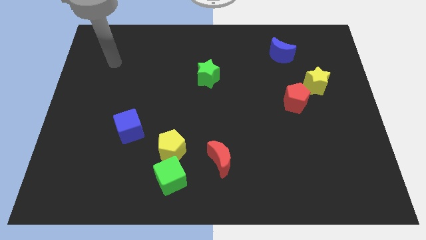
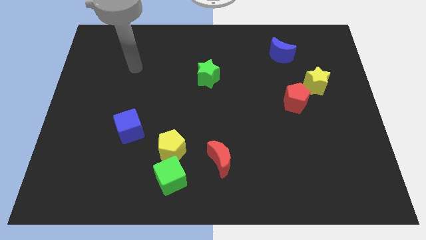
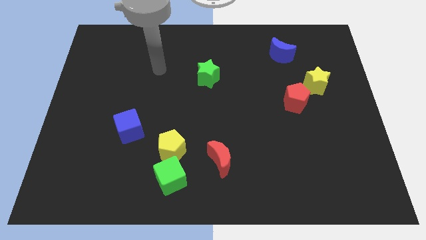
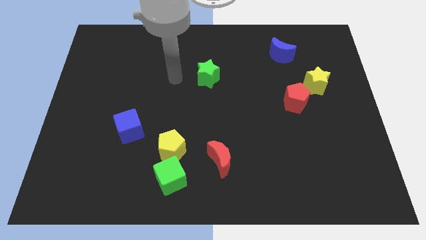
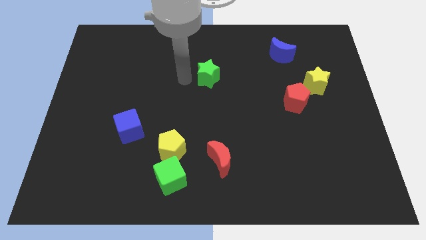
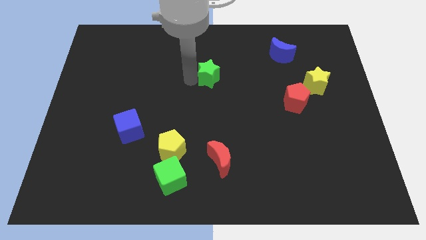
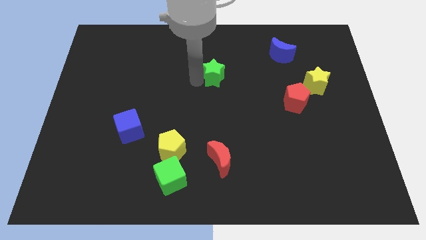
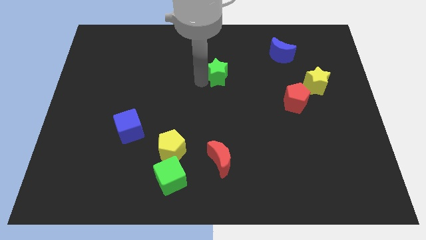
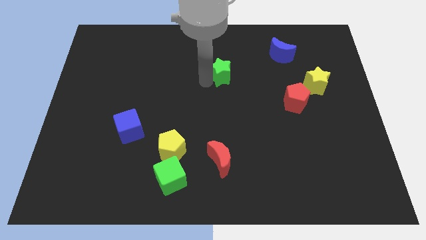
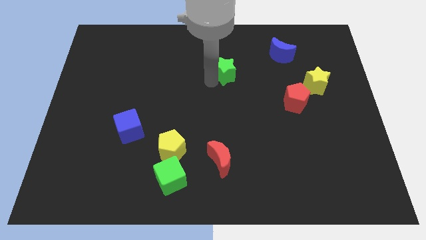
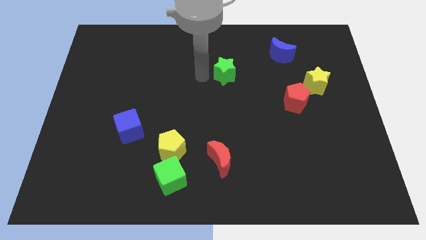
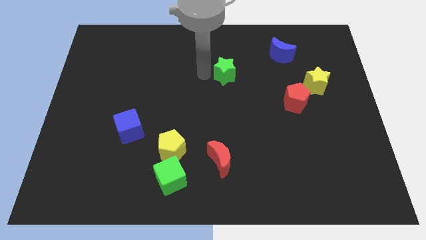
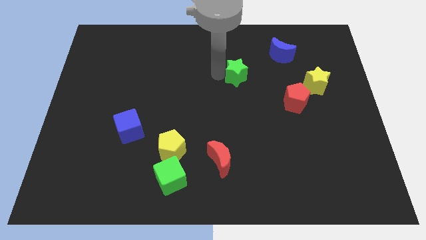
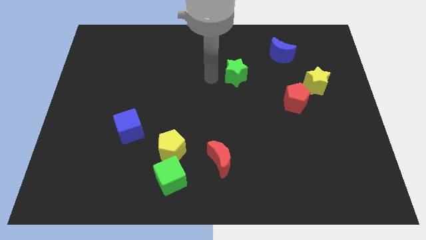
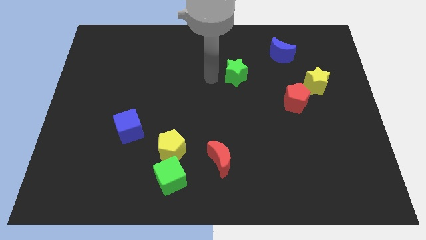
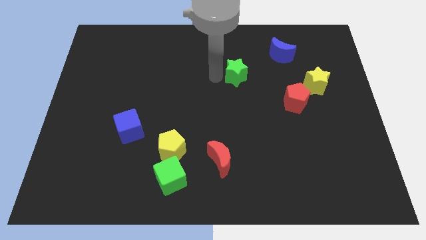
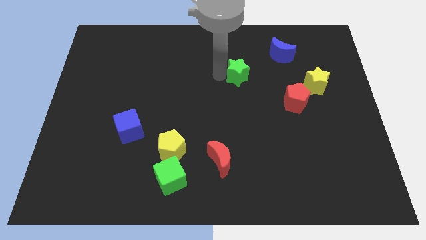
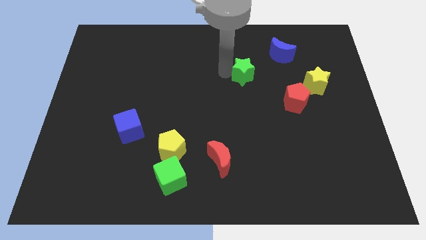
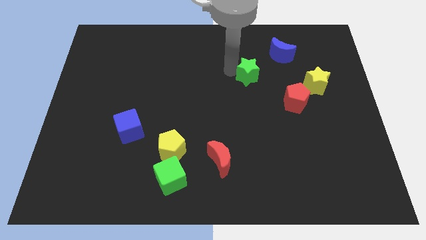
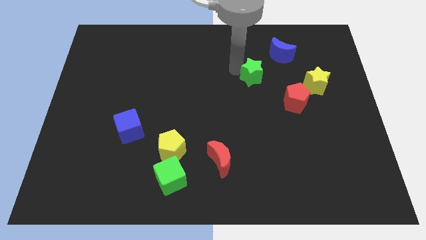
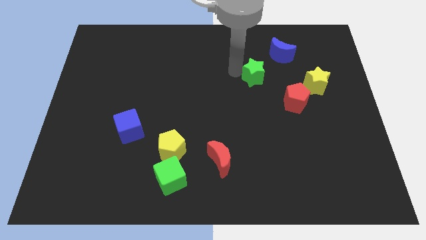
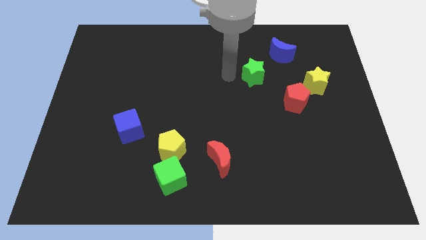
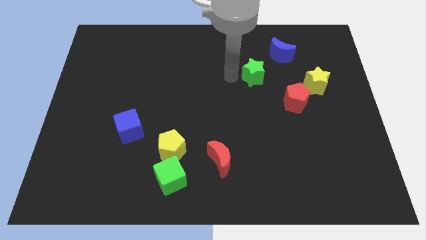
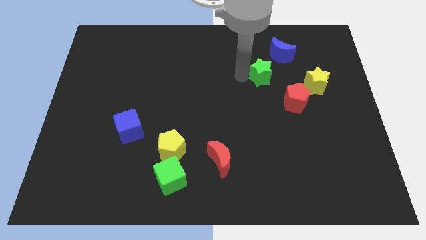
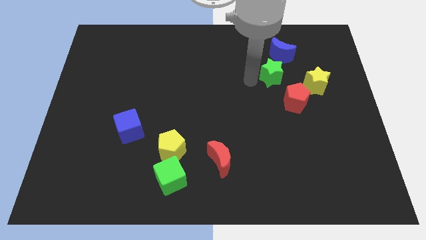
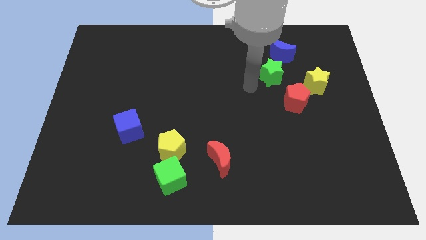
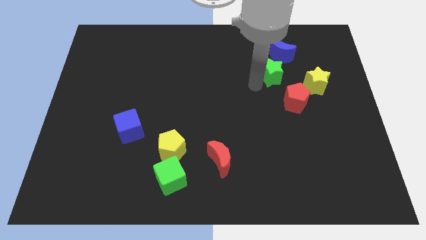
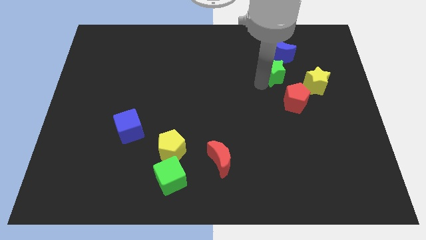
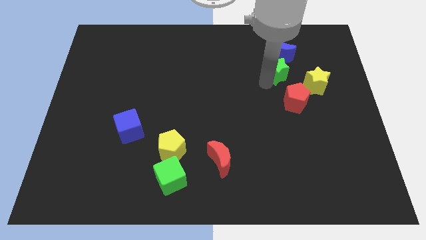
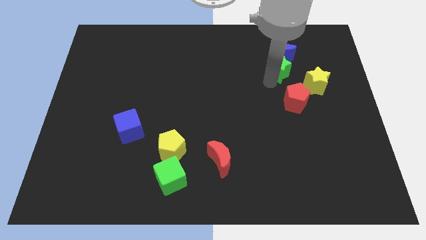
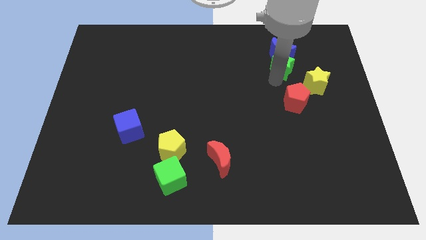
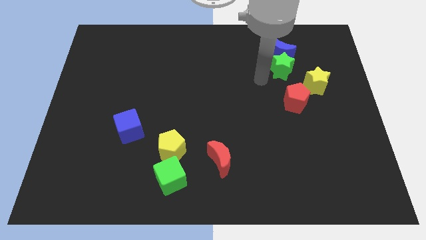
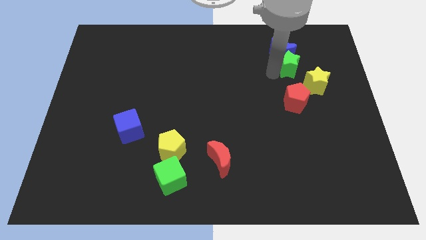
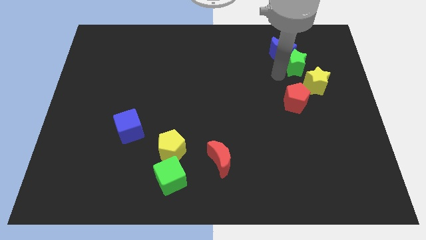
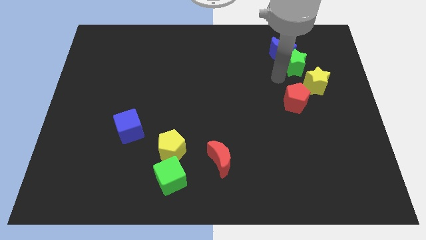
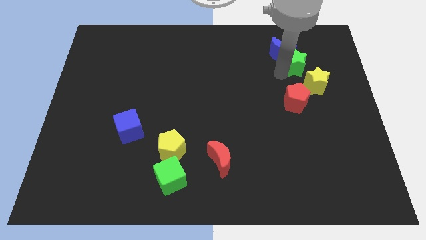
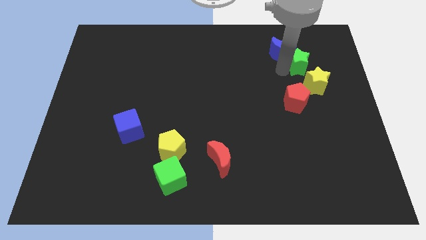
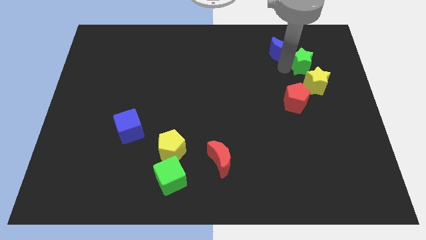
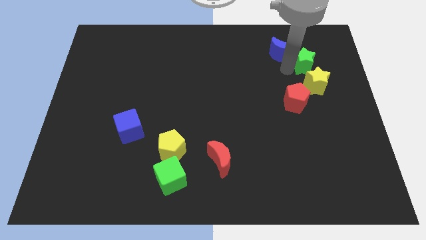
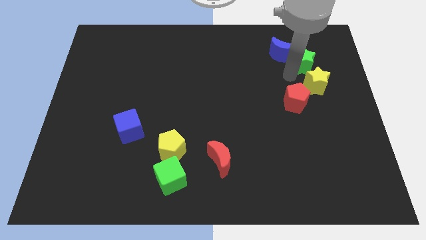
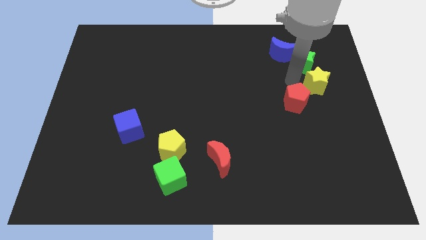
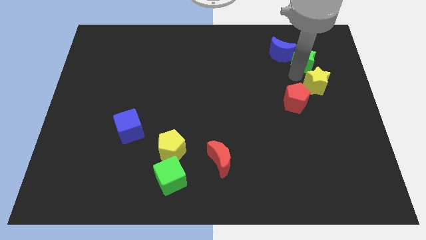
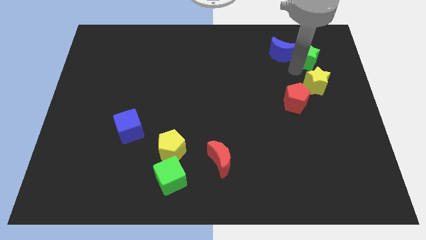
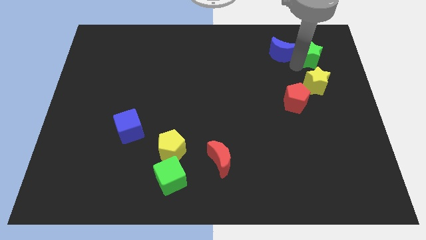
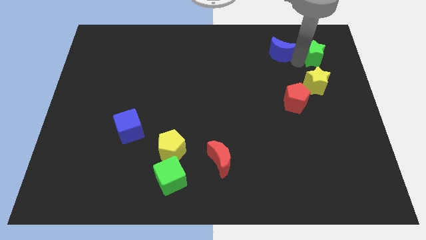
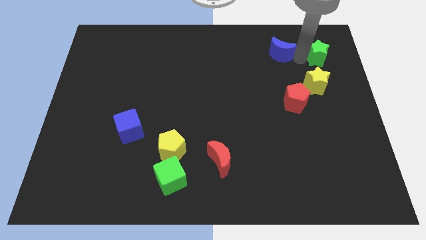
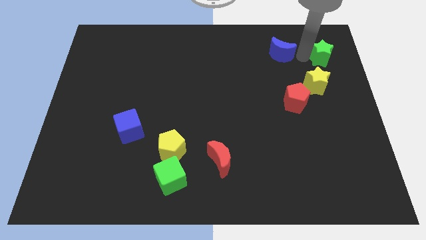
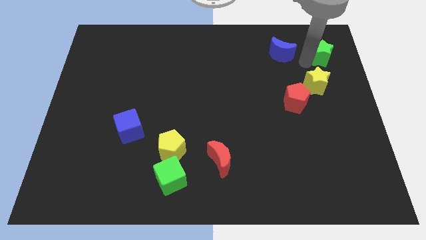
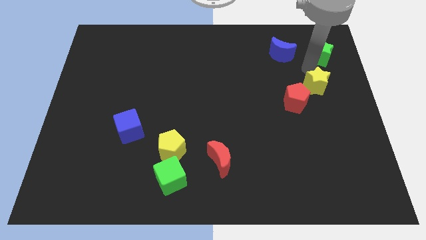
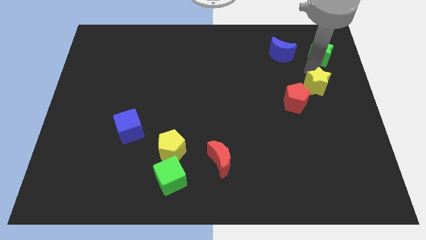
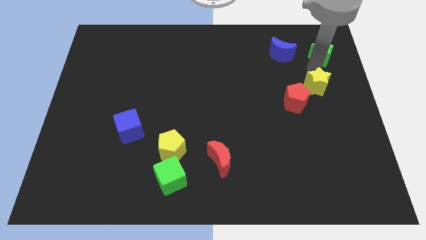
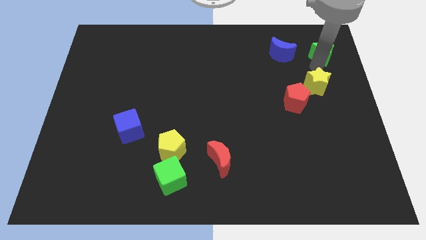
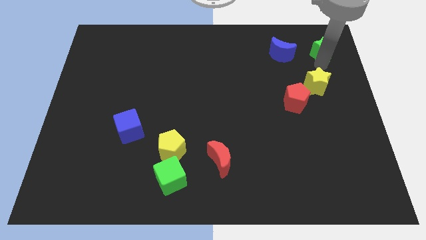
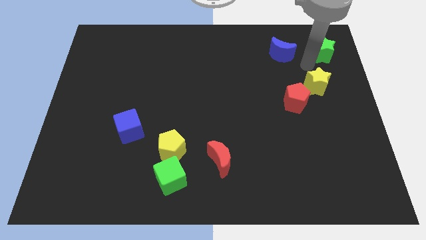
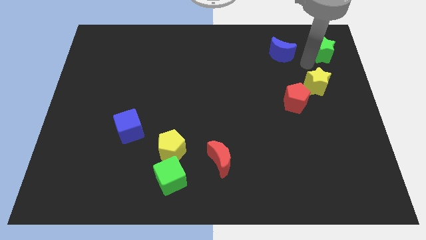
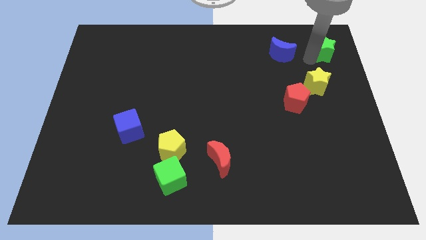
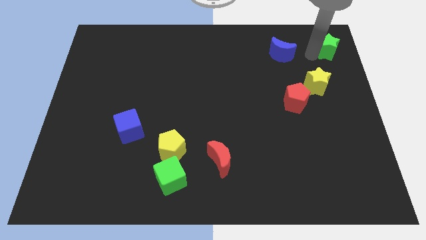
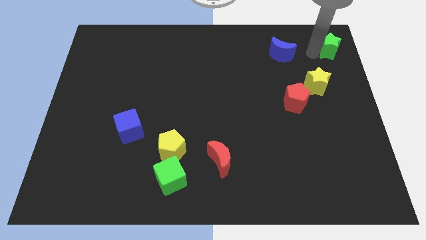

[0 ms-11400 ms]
slide the green star to the top right
